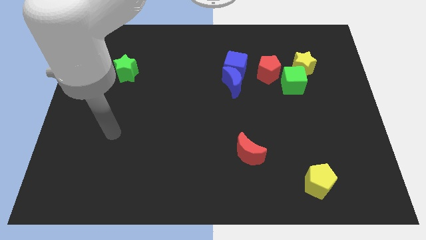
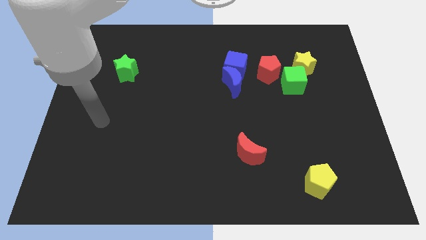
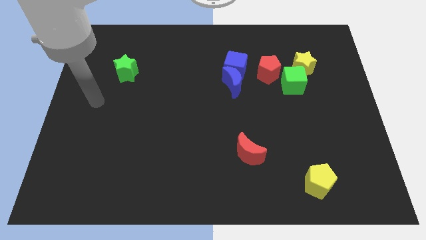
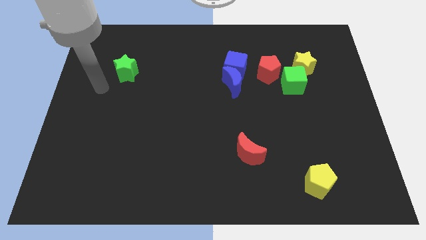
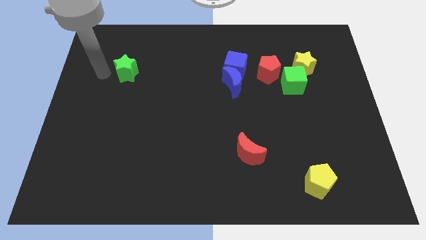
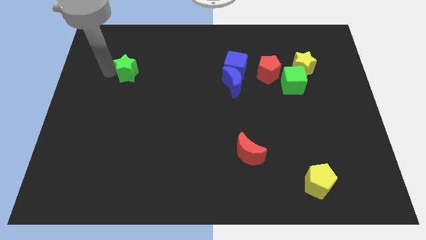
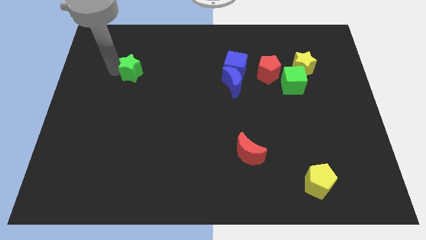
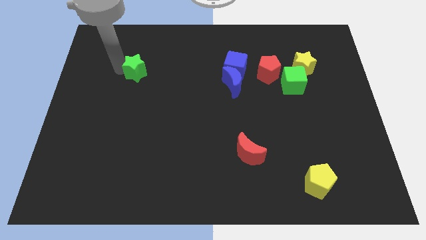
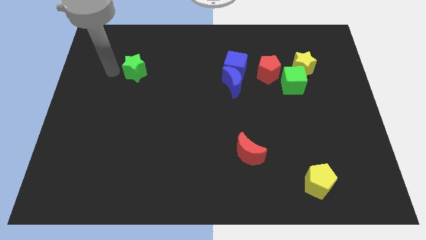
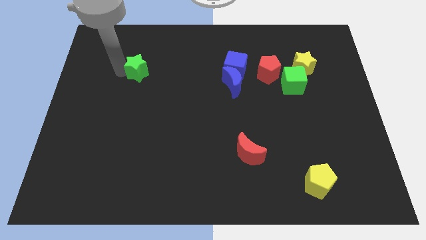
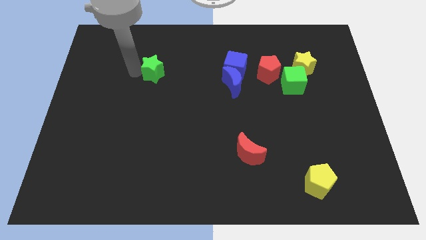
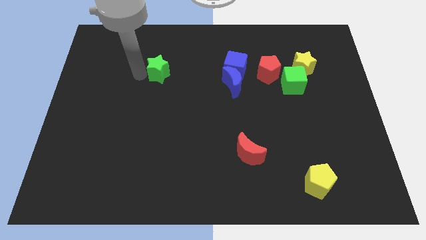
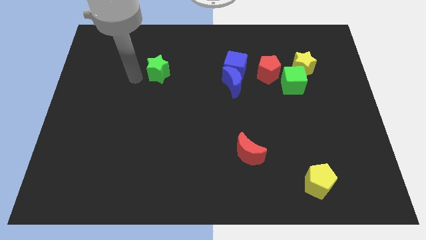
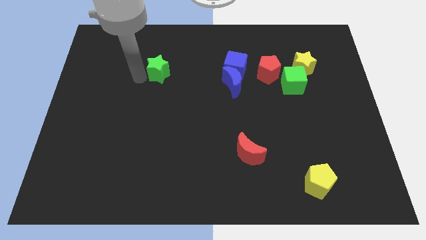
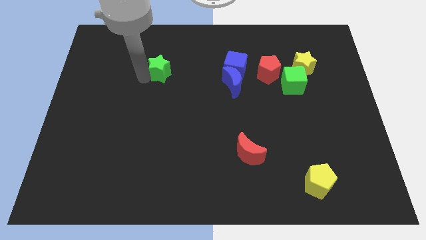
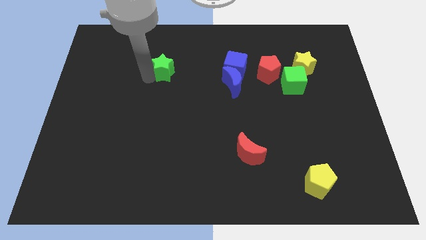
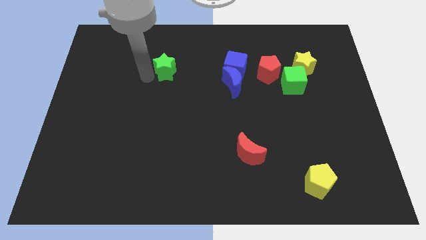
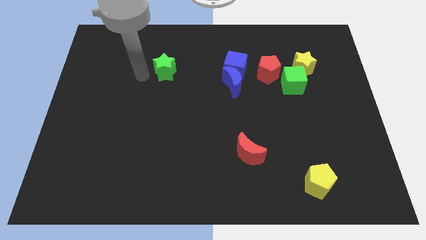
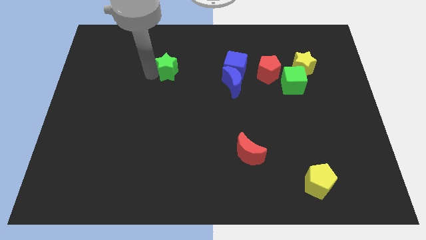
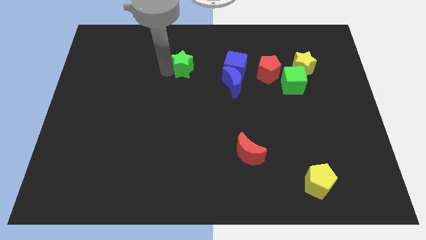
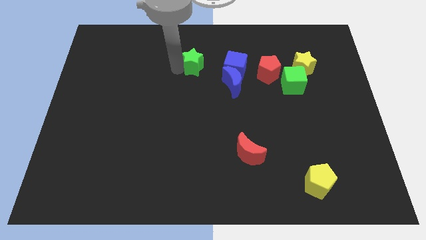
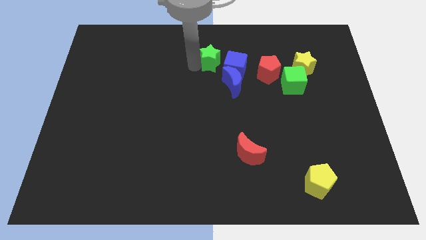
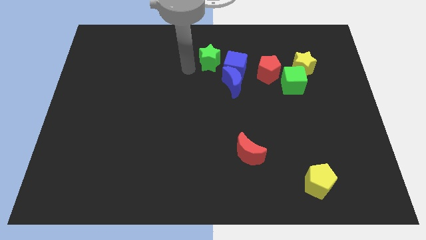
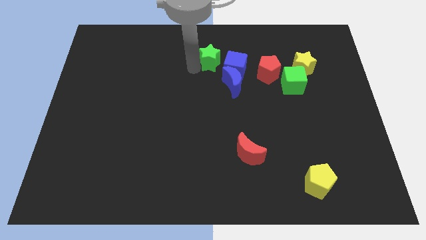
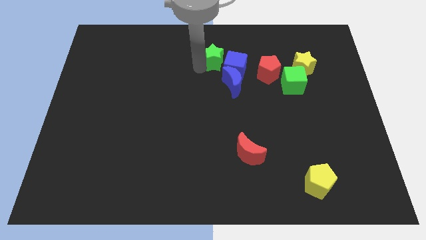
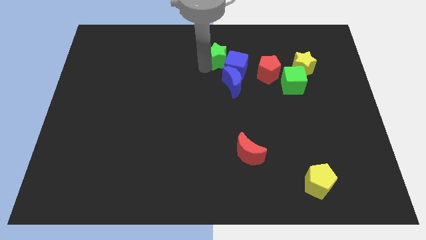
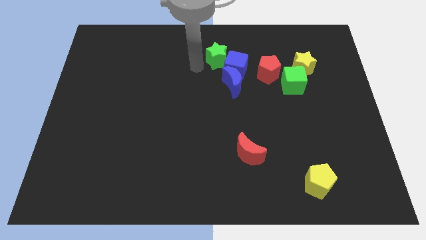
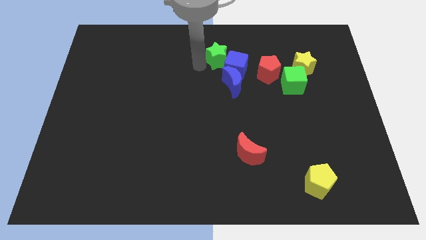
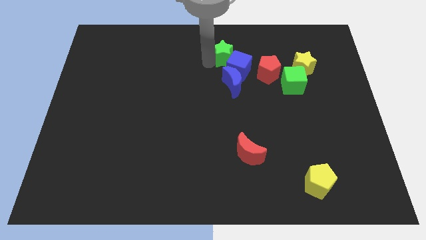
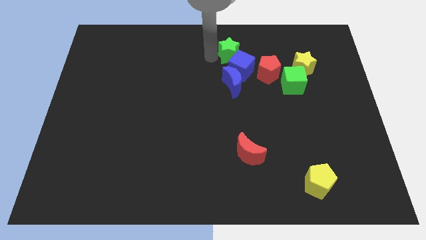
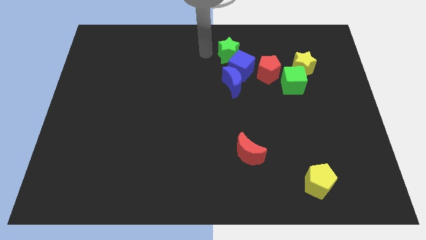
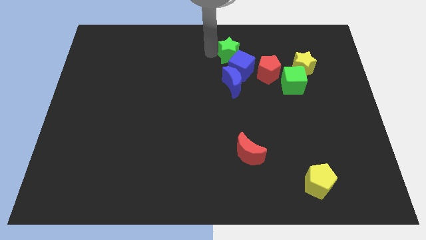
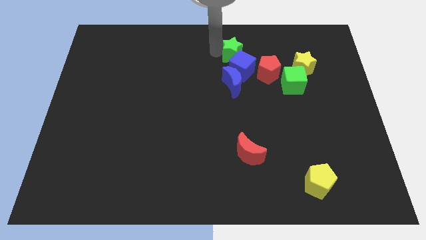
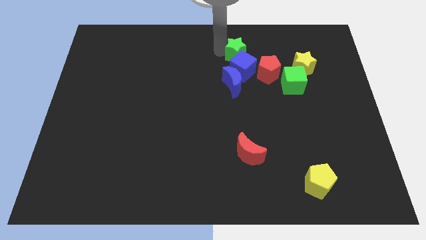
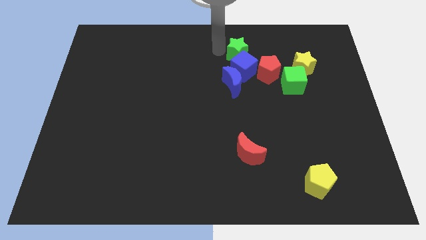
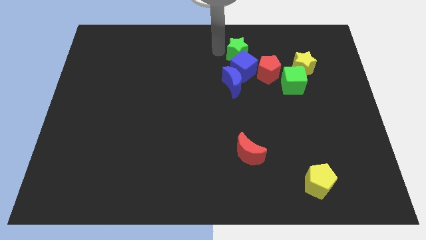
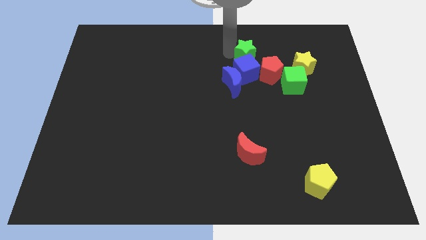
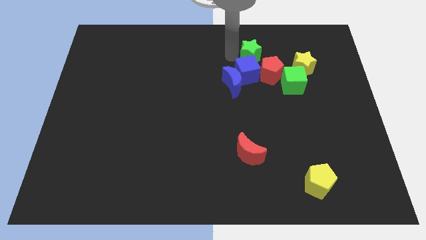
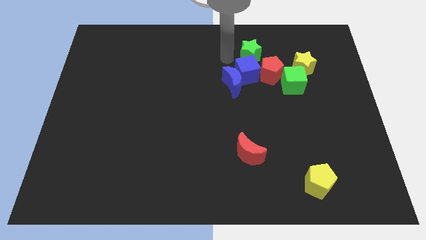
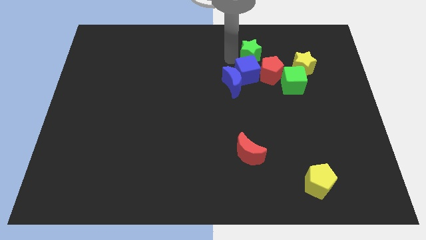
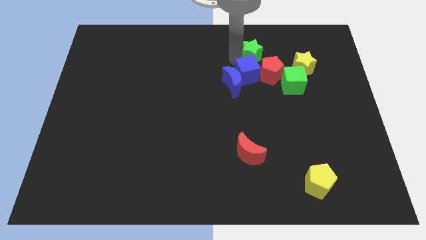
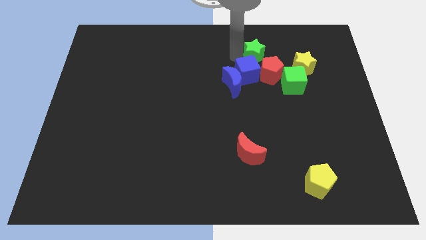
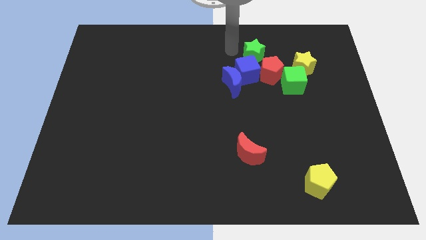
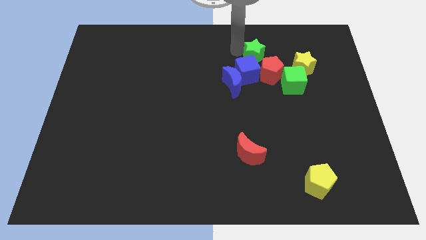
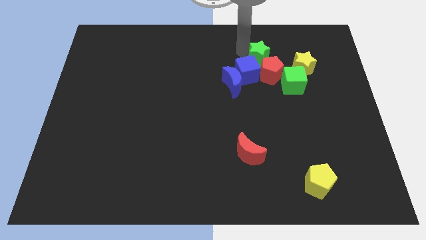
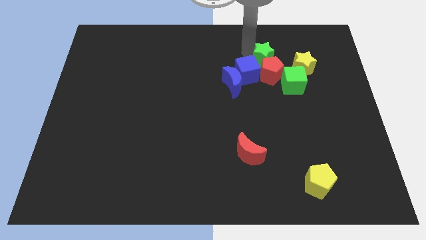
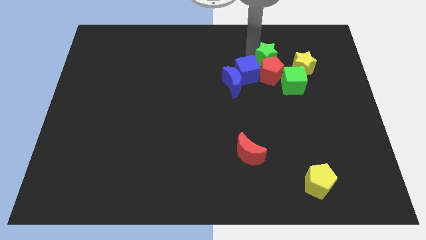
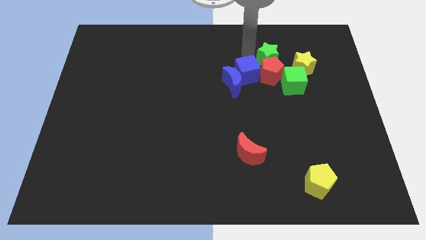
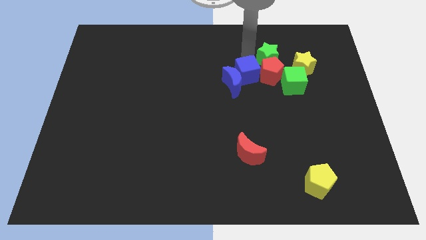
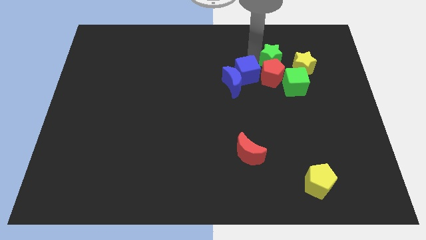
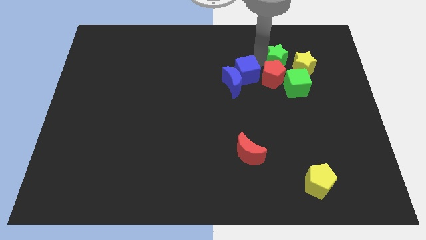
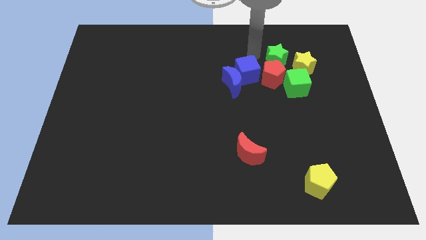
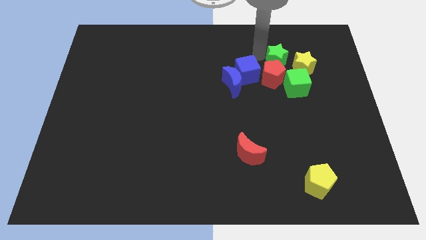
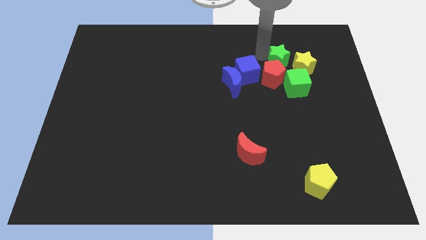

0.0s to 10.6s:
put the green star towards the yellow star

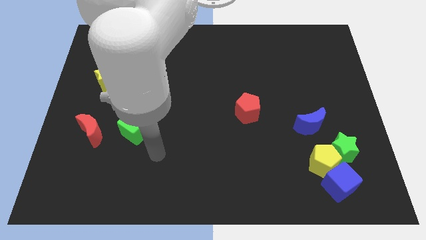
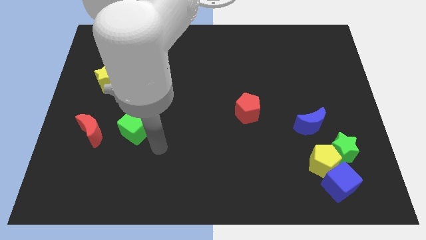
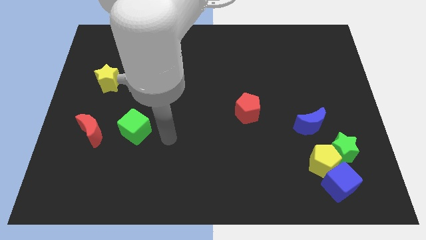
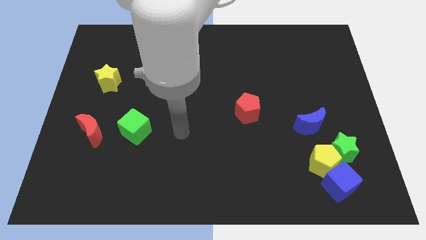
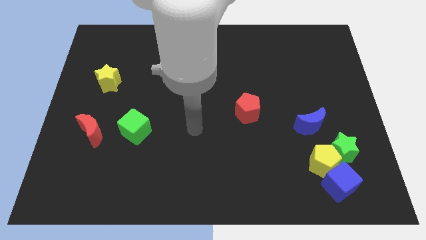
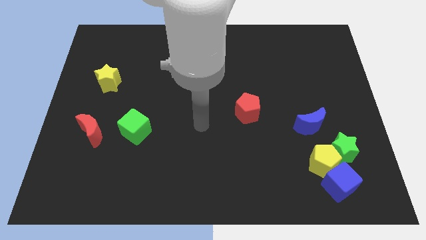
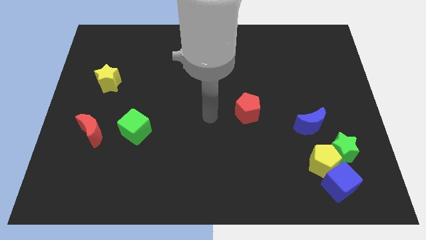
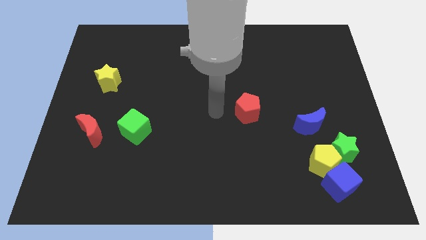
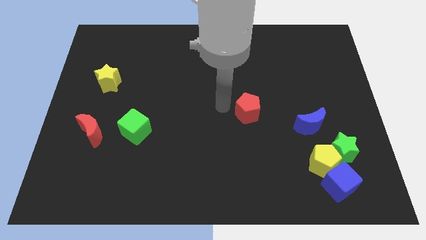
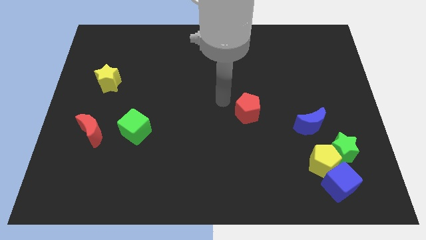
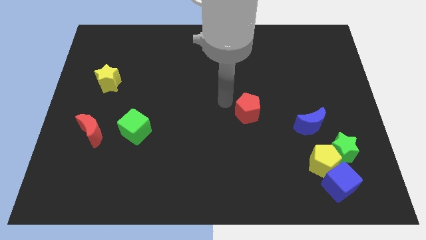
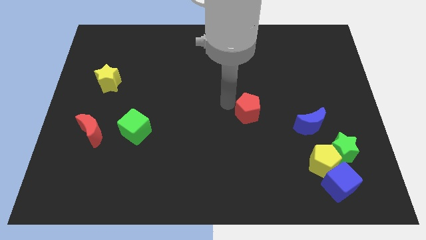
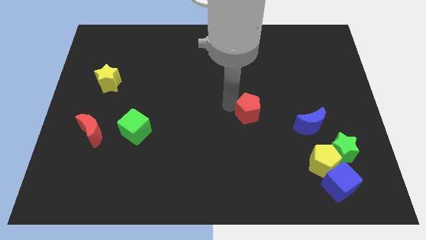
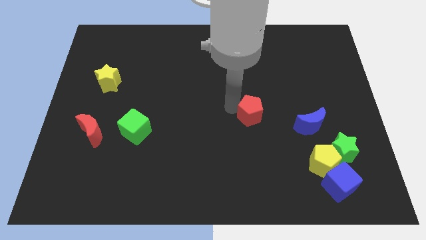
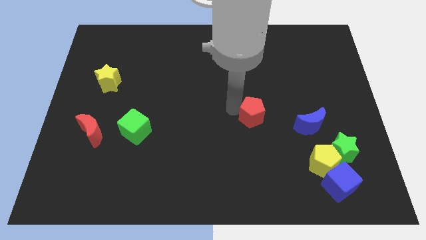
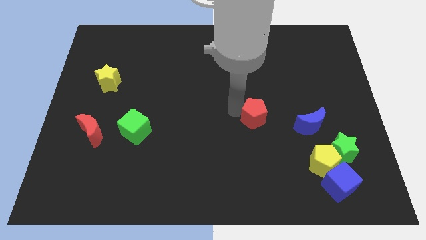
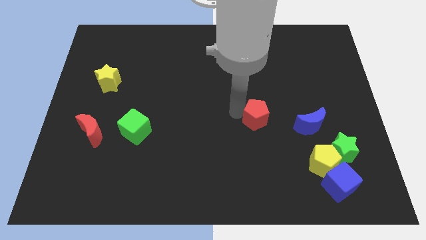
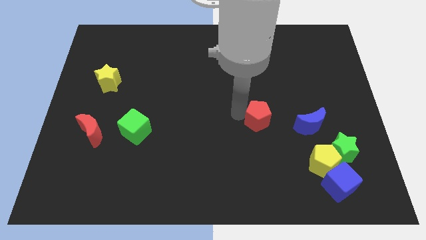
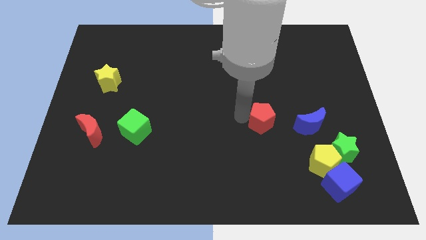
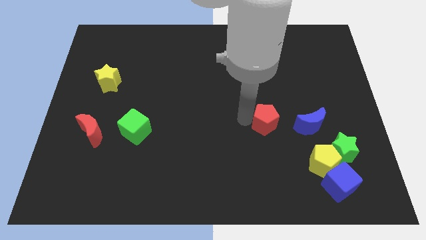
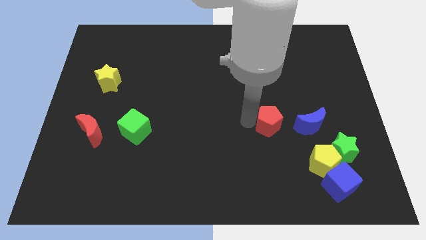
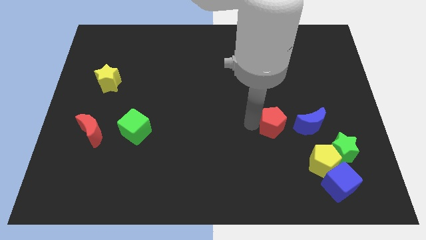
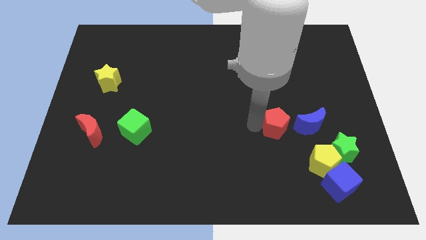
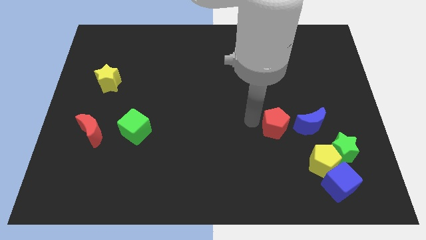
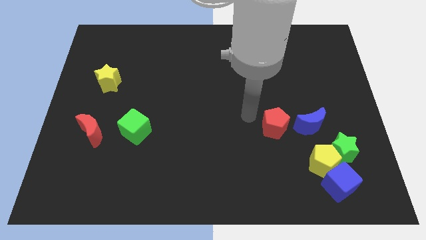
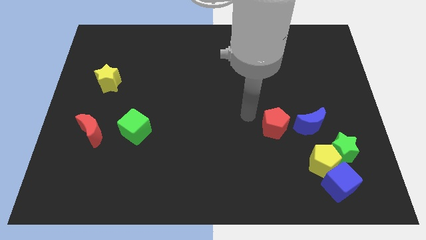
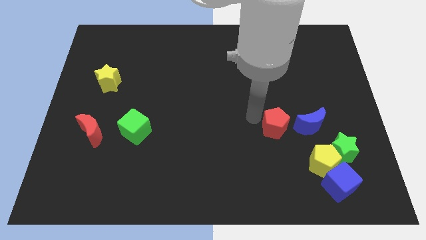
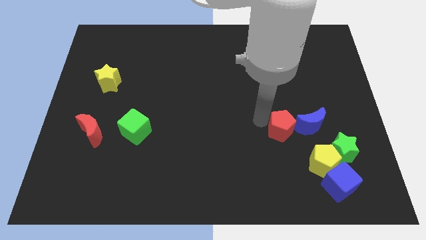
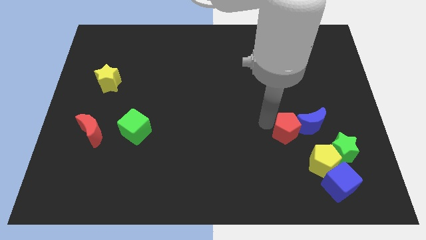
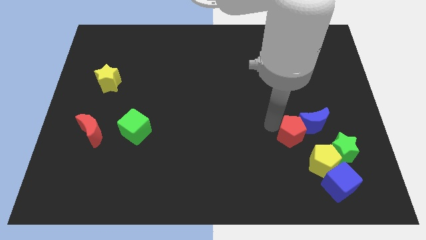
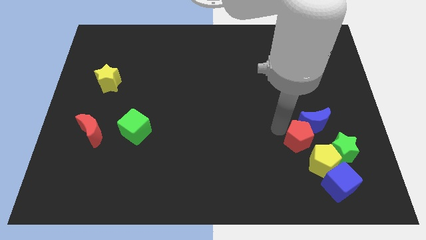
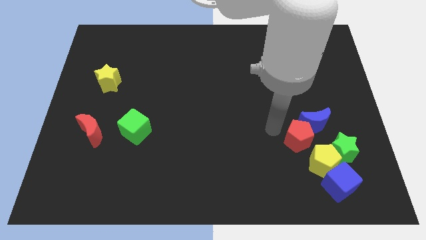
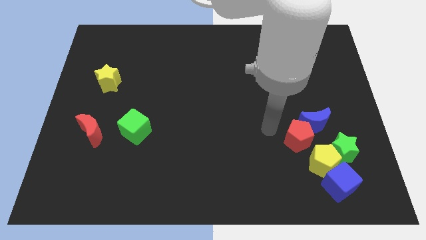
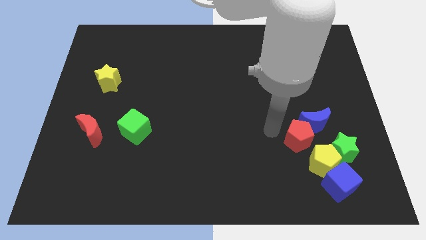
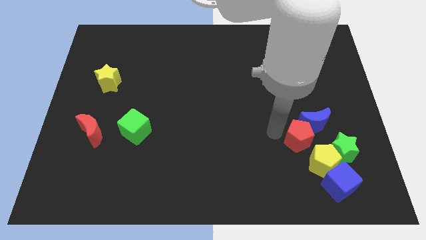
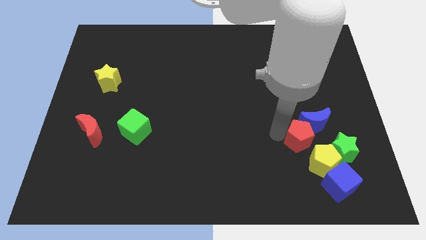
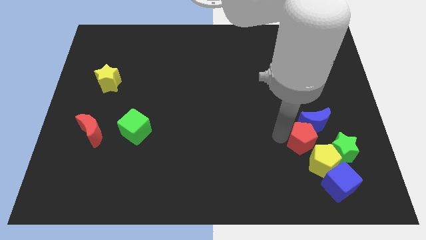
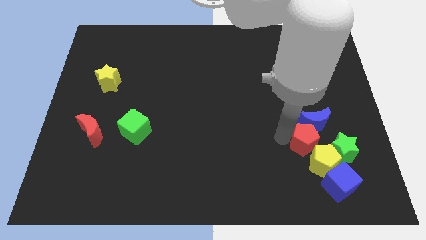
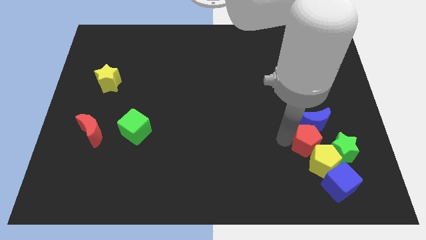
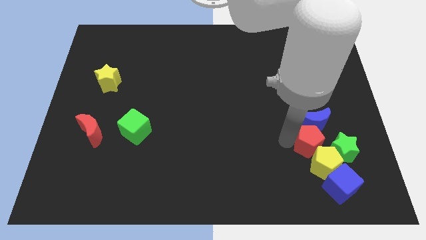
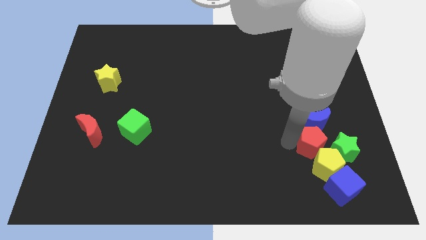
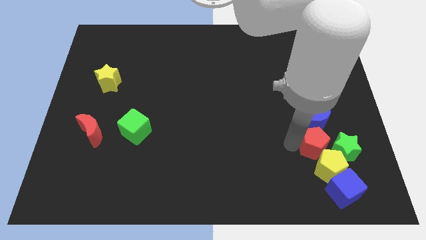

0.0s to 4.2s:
slide the red pentagon close to the green star
